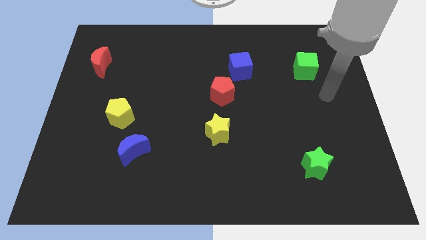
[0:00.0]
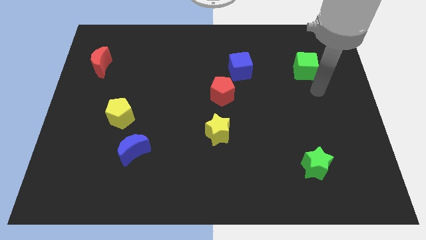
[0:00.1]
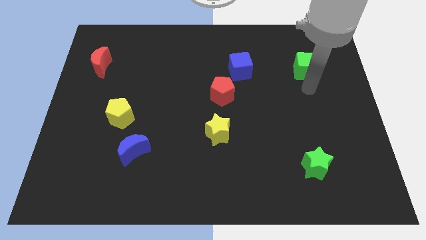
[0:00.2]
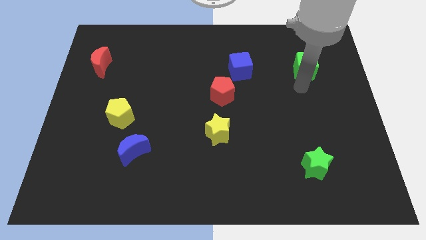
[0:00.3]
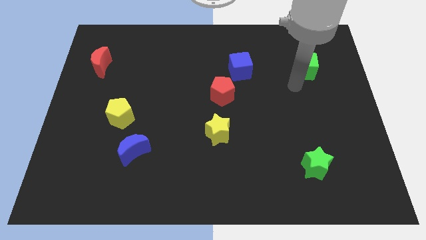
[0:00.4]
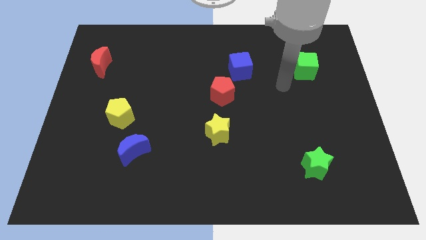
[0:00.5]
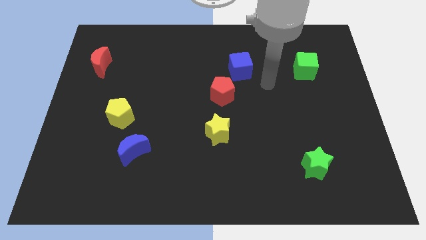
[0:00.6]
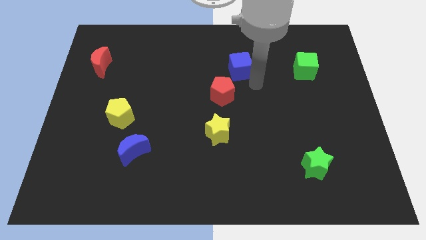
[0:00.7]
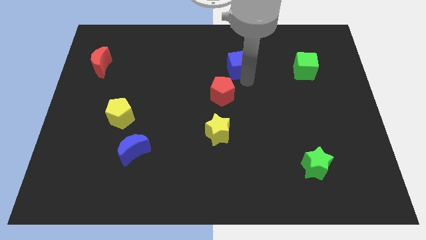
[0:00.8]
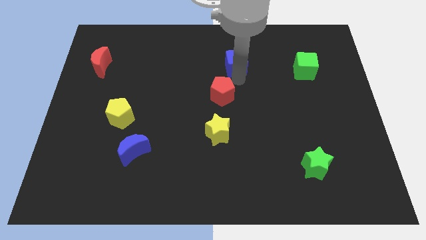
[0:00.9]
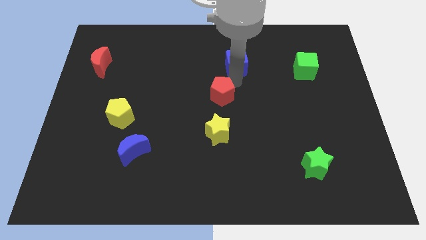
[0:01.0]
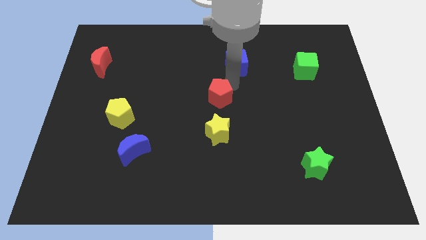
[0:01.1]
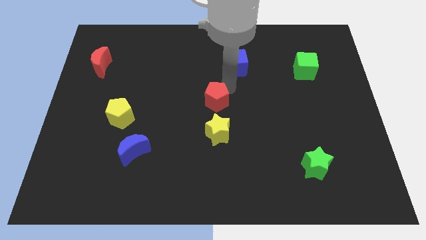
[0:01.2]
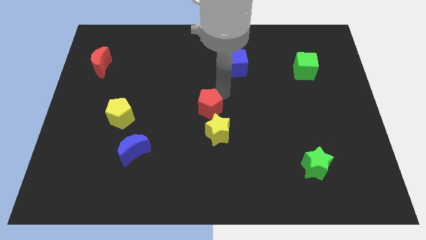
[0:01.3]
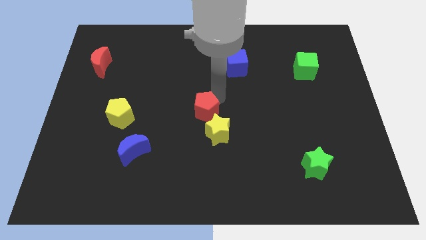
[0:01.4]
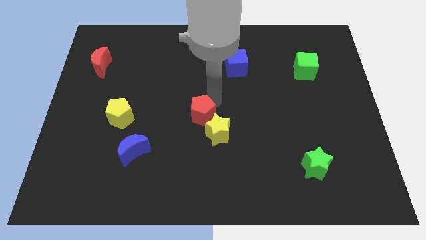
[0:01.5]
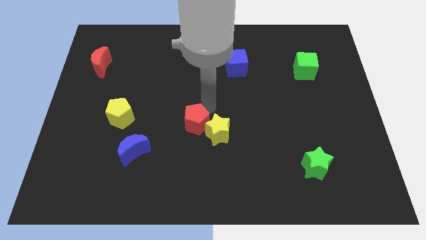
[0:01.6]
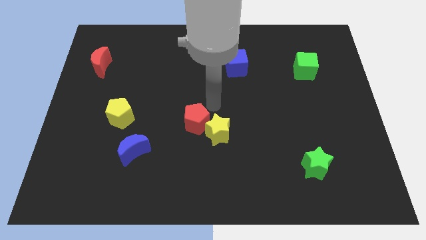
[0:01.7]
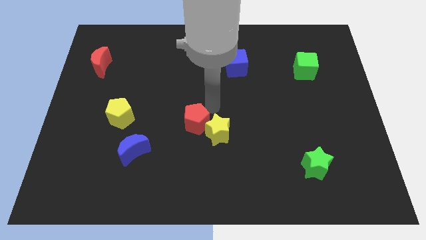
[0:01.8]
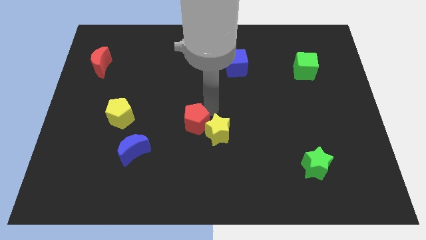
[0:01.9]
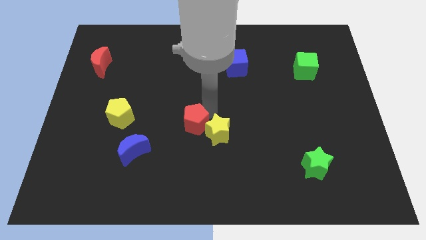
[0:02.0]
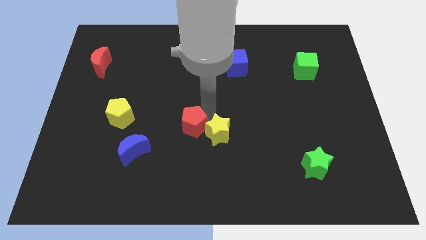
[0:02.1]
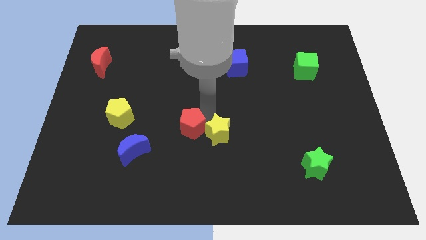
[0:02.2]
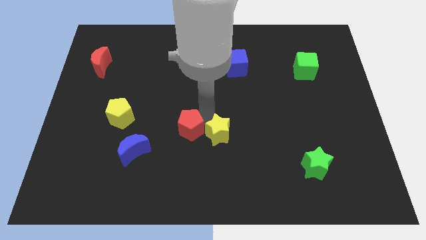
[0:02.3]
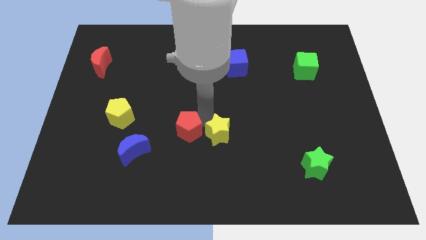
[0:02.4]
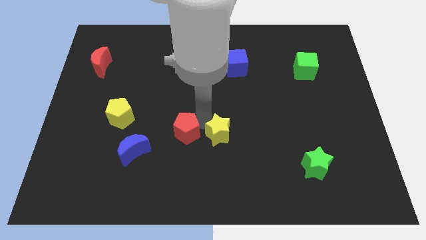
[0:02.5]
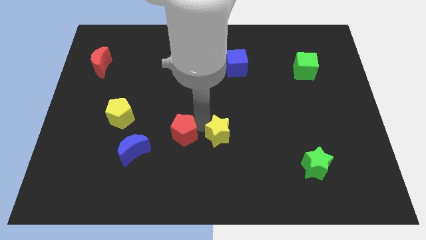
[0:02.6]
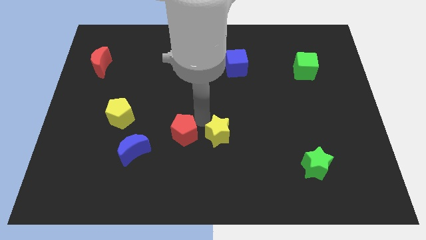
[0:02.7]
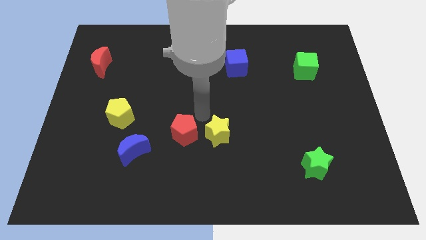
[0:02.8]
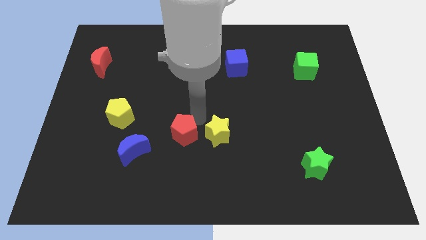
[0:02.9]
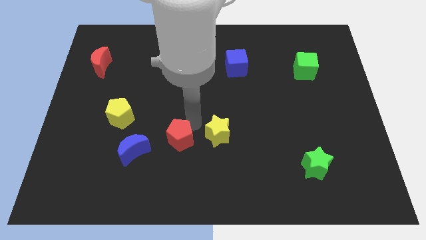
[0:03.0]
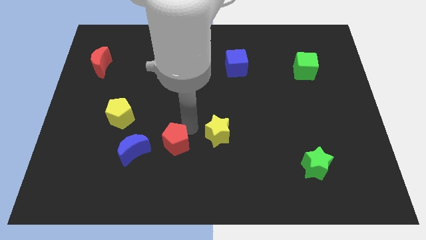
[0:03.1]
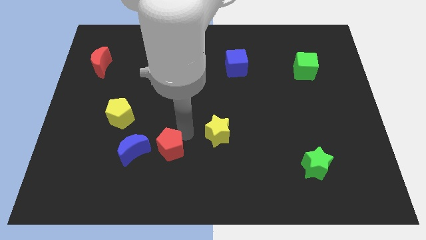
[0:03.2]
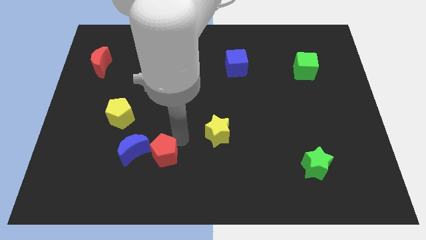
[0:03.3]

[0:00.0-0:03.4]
push the red pentagon downwards and to the left diagonally

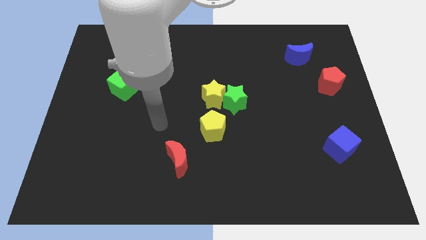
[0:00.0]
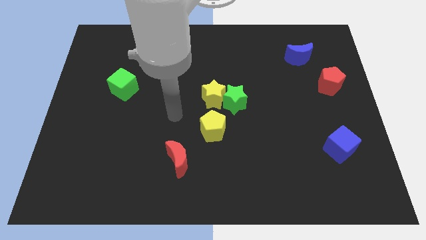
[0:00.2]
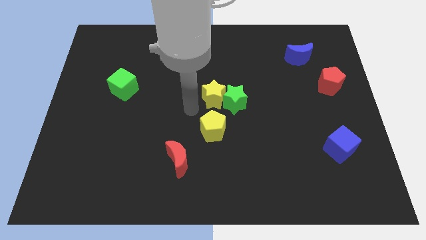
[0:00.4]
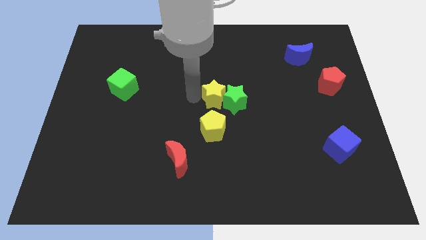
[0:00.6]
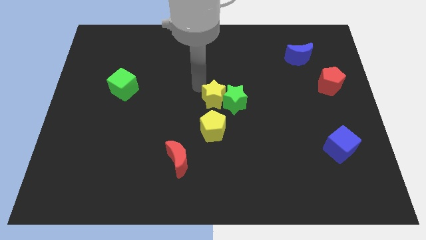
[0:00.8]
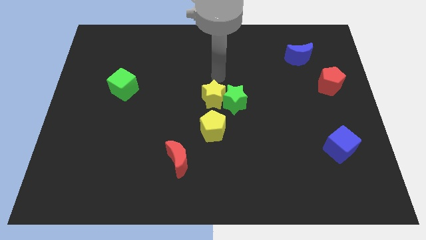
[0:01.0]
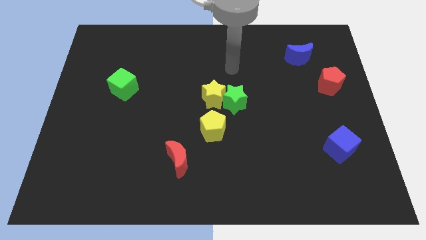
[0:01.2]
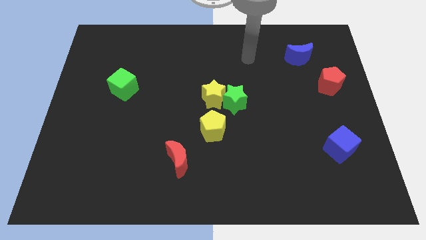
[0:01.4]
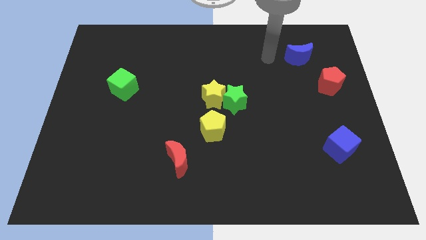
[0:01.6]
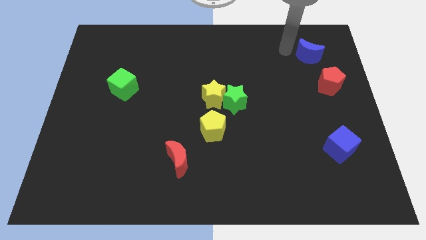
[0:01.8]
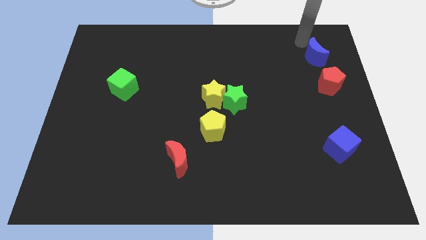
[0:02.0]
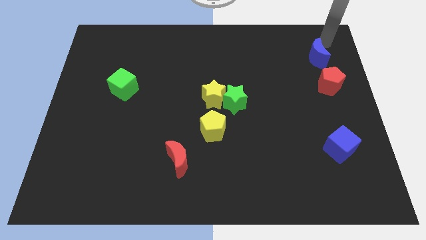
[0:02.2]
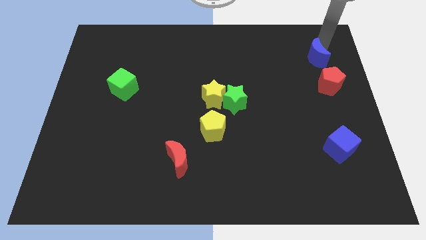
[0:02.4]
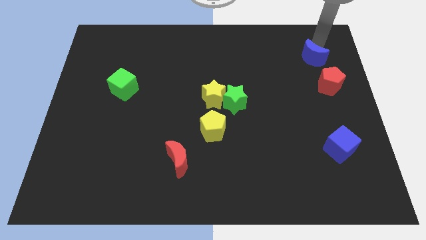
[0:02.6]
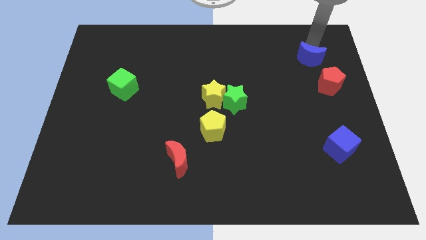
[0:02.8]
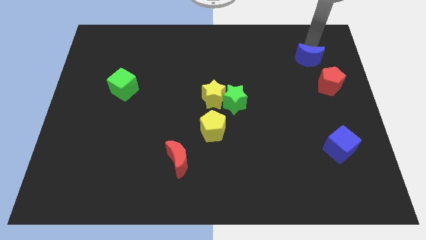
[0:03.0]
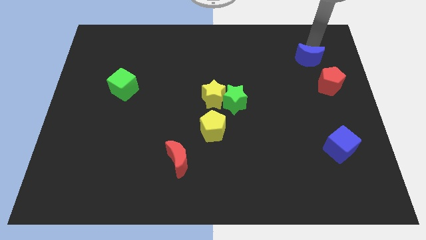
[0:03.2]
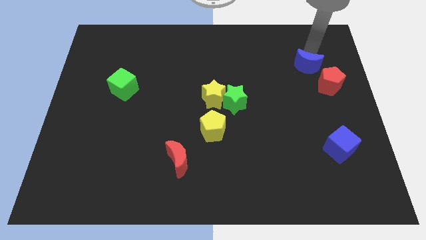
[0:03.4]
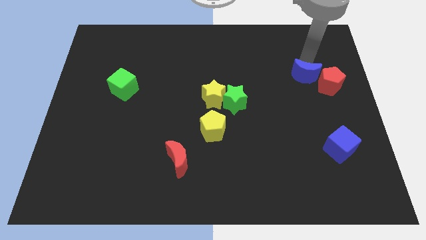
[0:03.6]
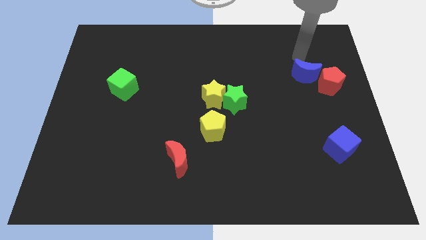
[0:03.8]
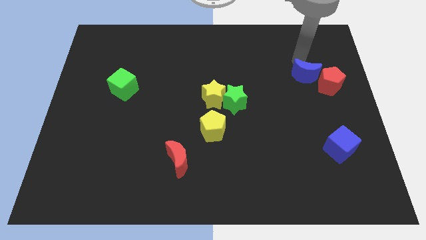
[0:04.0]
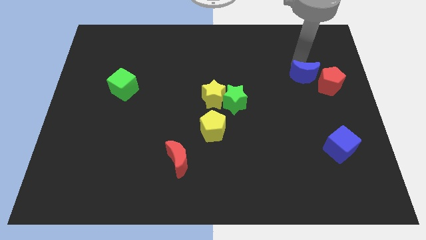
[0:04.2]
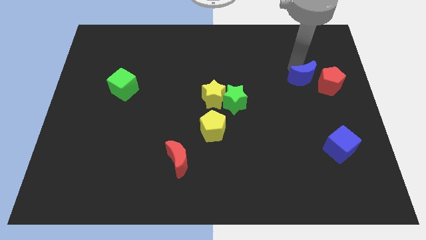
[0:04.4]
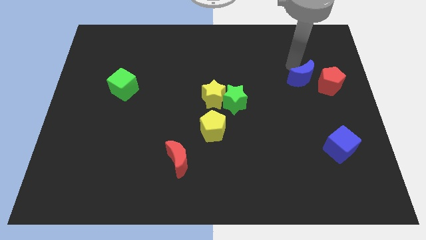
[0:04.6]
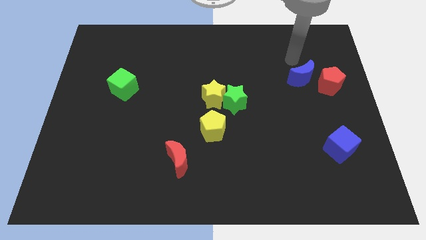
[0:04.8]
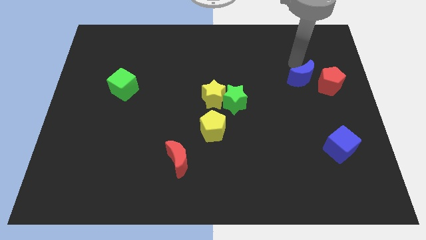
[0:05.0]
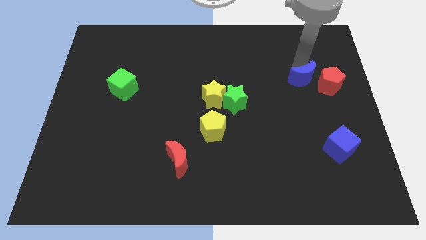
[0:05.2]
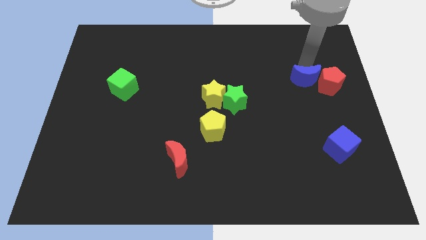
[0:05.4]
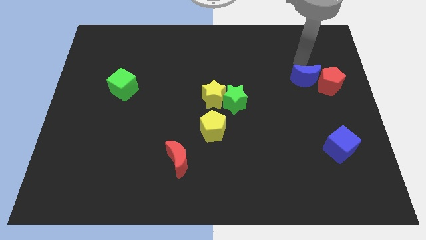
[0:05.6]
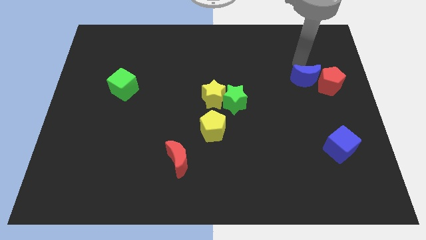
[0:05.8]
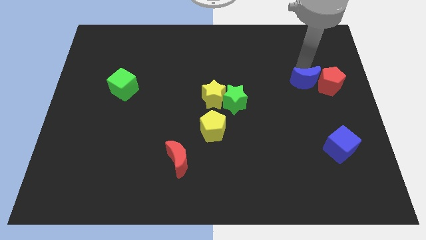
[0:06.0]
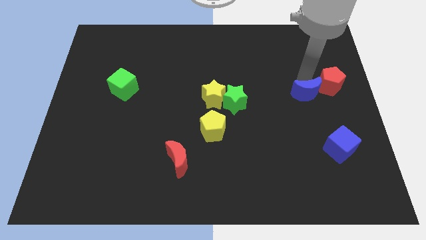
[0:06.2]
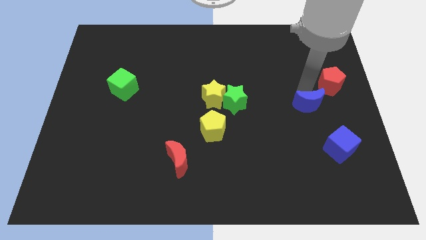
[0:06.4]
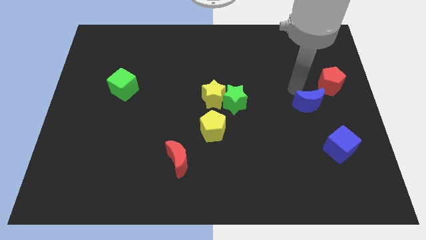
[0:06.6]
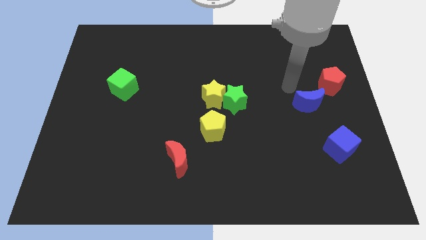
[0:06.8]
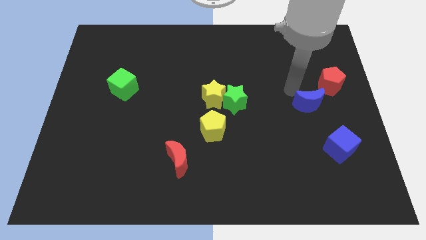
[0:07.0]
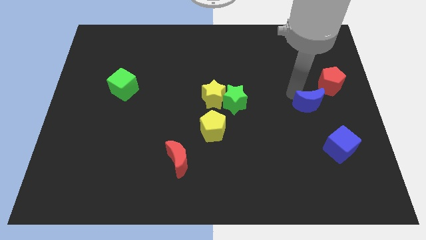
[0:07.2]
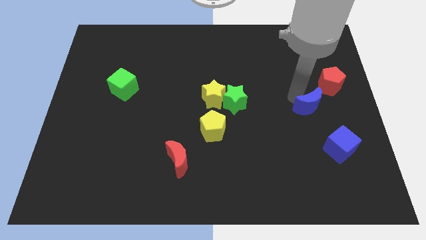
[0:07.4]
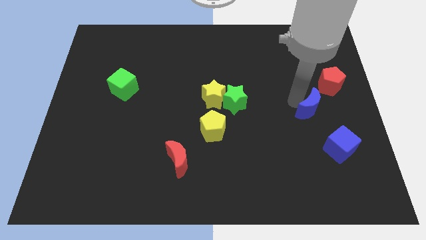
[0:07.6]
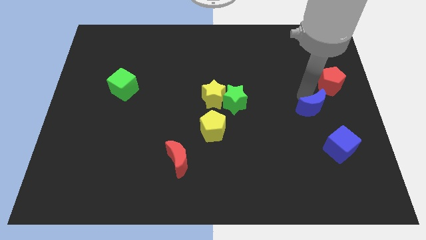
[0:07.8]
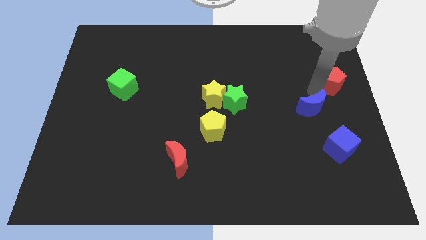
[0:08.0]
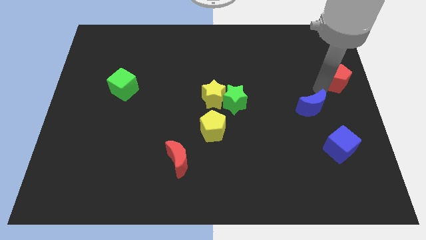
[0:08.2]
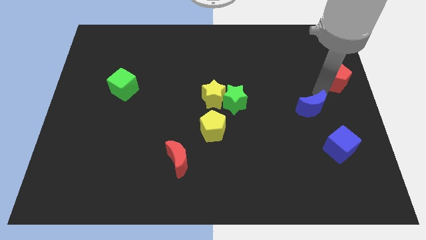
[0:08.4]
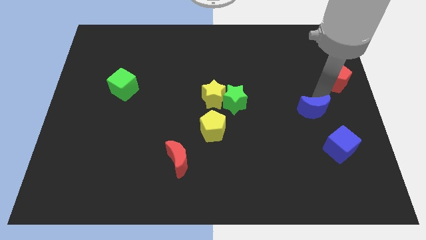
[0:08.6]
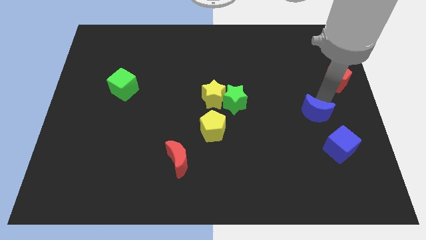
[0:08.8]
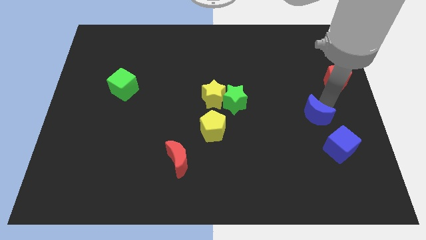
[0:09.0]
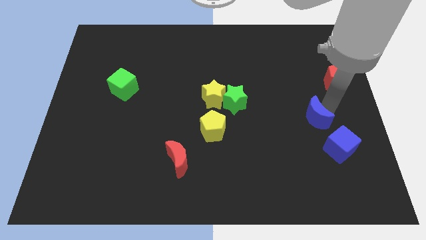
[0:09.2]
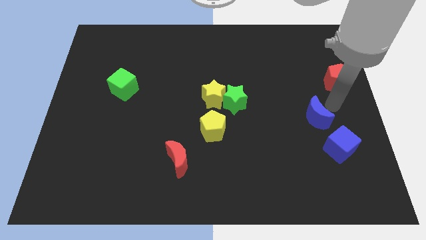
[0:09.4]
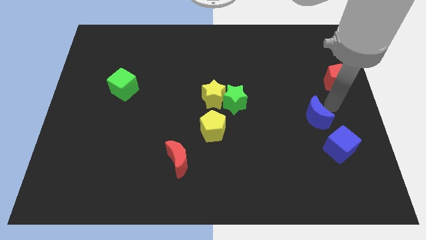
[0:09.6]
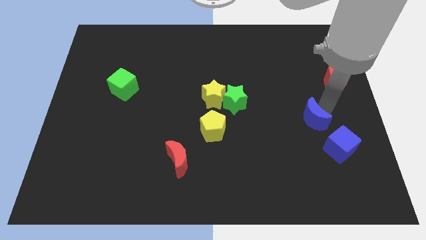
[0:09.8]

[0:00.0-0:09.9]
push the blue moon downwards
